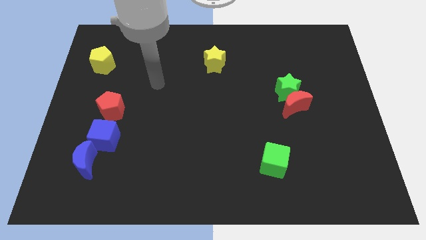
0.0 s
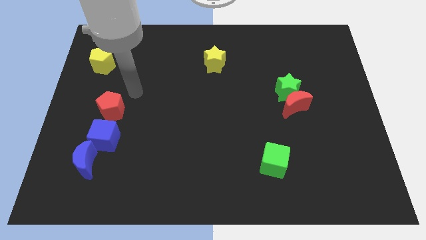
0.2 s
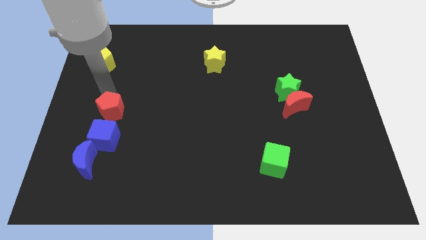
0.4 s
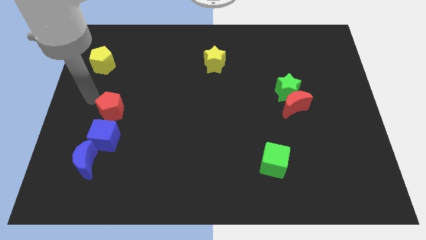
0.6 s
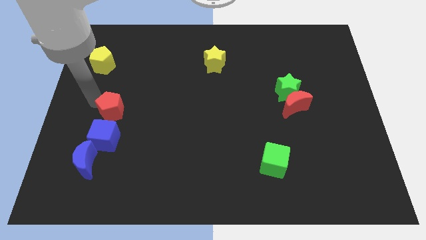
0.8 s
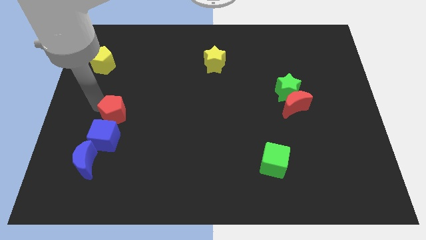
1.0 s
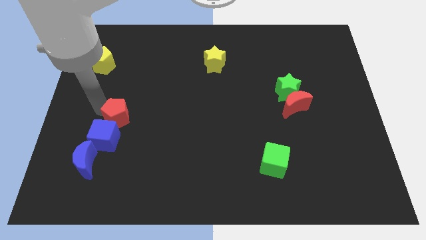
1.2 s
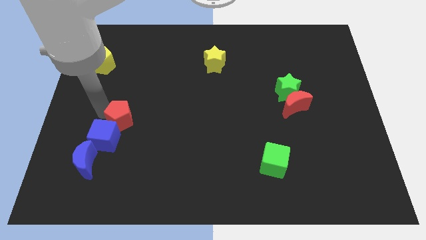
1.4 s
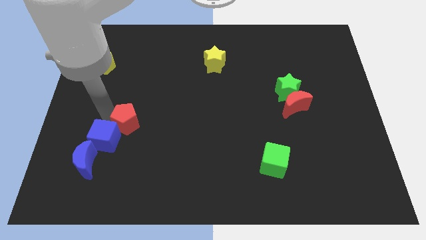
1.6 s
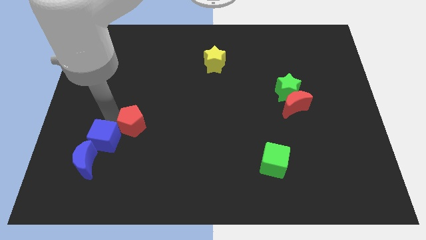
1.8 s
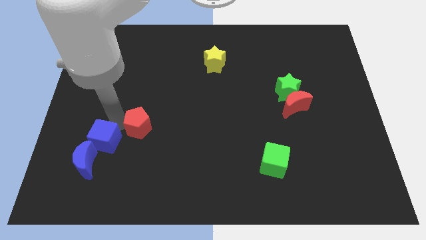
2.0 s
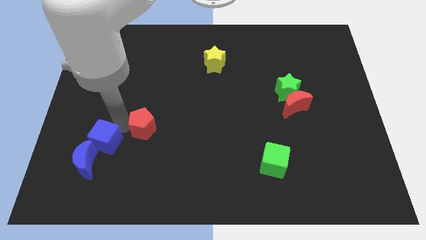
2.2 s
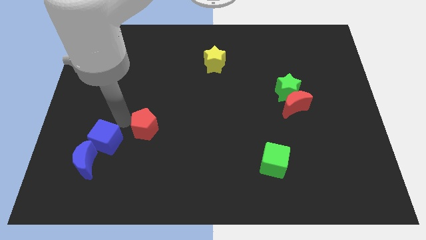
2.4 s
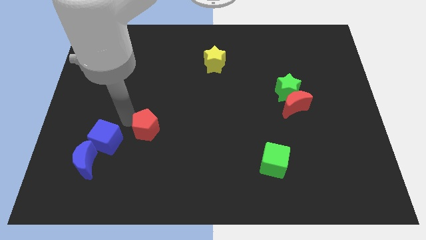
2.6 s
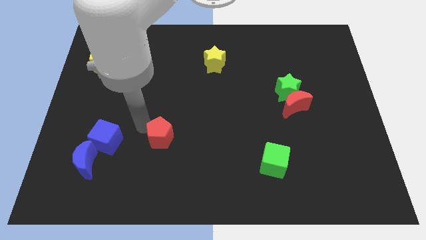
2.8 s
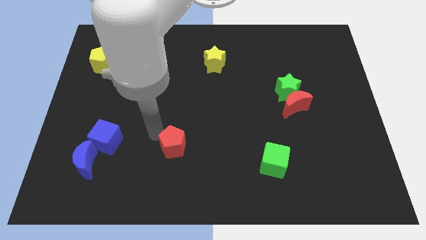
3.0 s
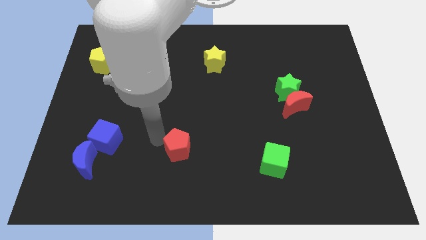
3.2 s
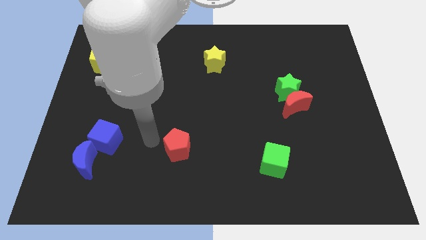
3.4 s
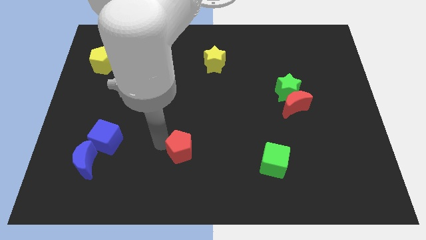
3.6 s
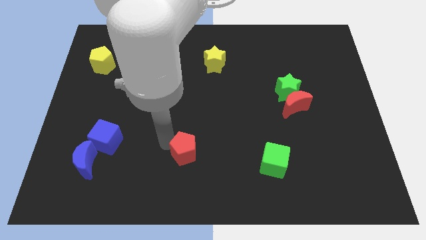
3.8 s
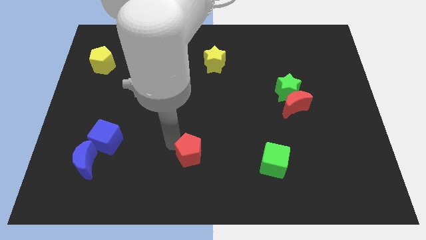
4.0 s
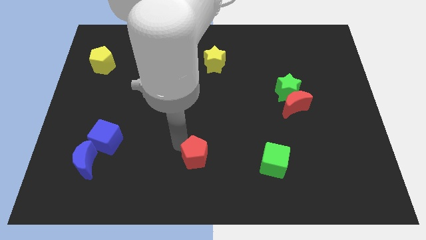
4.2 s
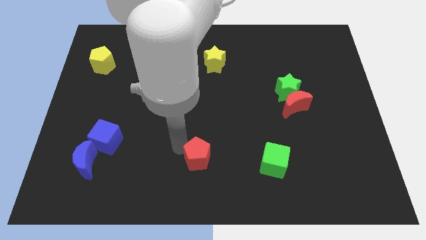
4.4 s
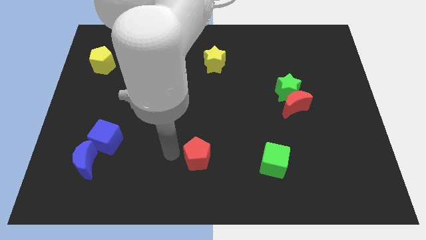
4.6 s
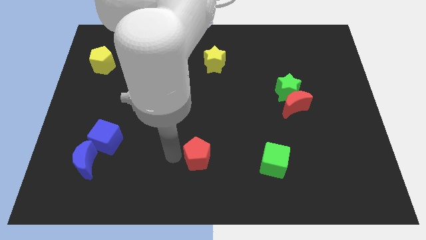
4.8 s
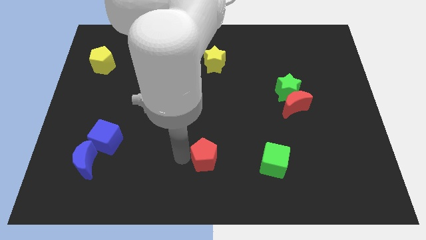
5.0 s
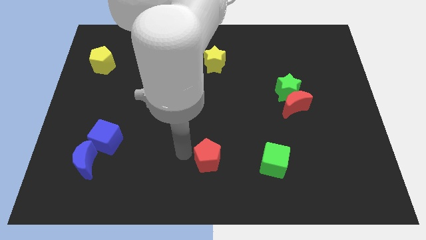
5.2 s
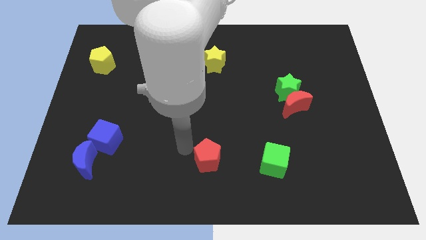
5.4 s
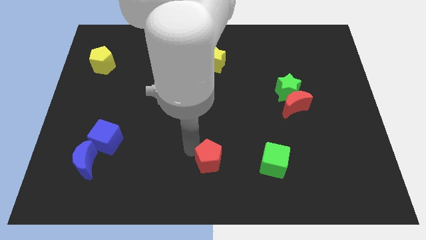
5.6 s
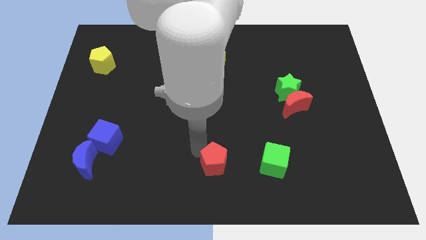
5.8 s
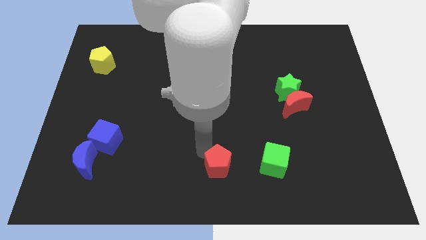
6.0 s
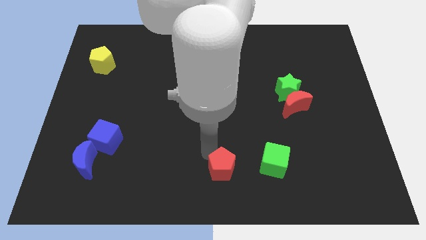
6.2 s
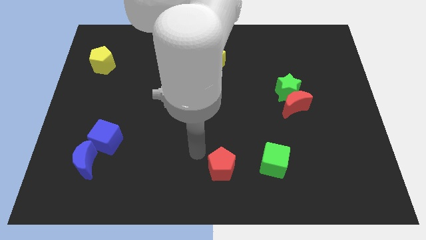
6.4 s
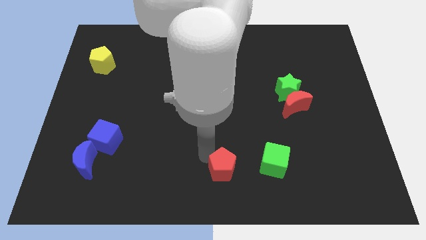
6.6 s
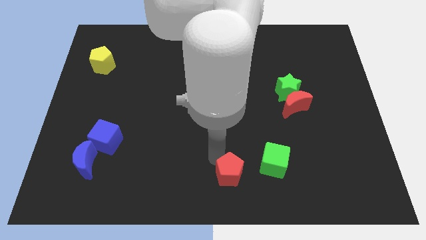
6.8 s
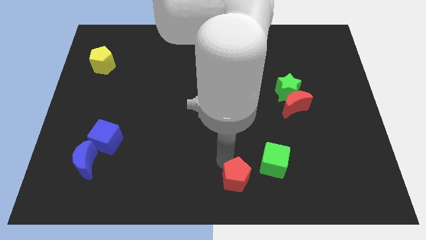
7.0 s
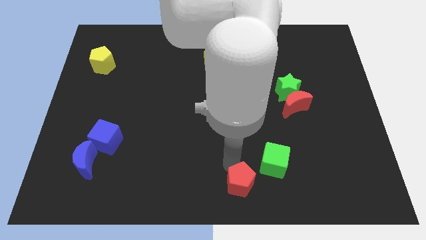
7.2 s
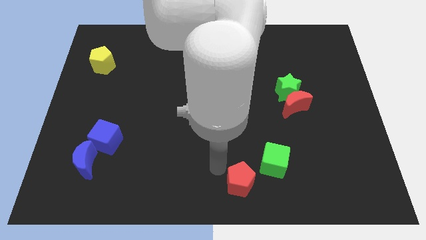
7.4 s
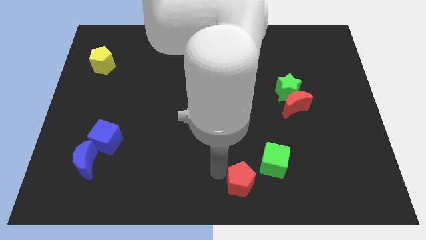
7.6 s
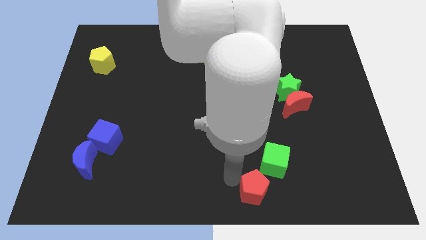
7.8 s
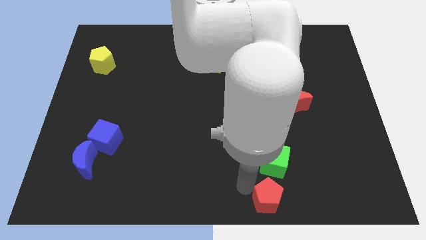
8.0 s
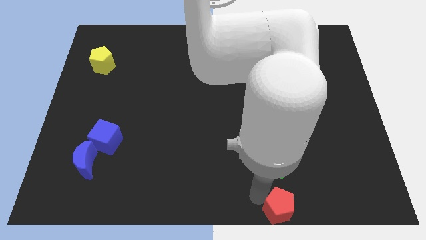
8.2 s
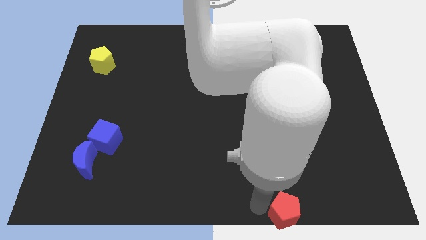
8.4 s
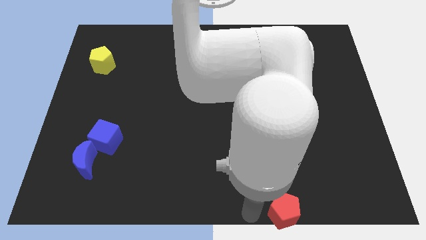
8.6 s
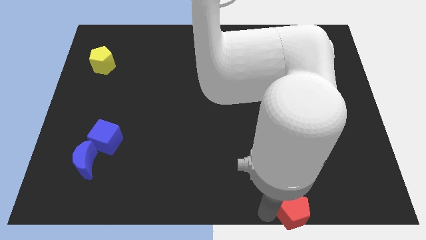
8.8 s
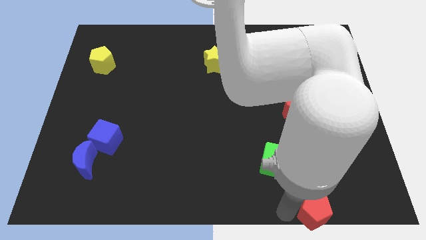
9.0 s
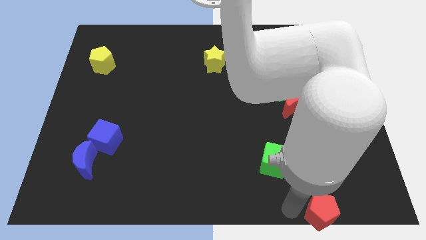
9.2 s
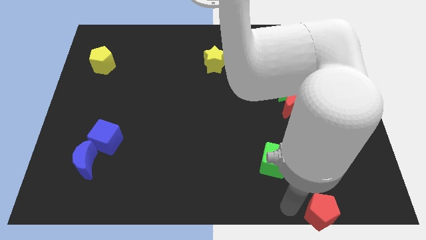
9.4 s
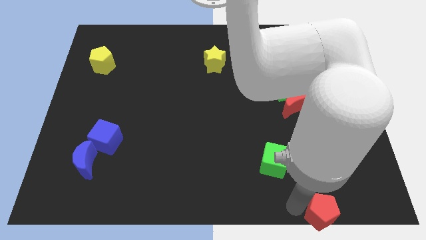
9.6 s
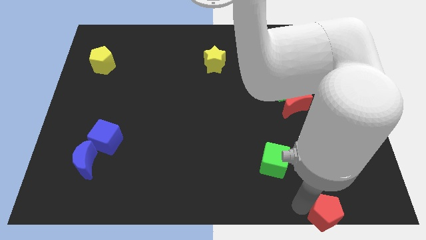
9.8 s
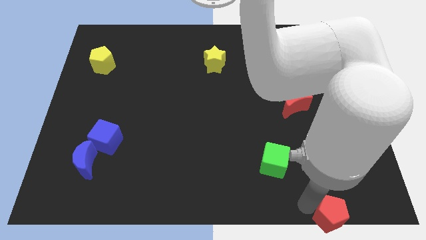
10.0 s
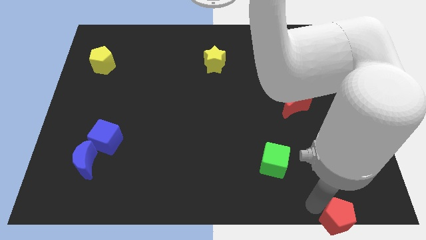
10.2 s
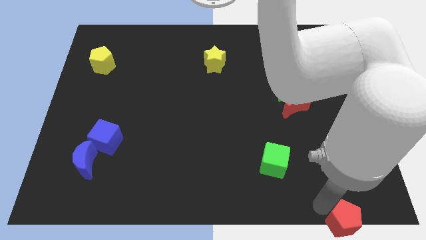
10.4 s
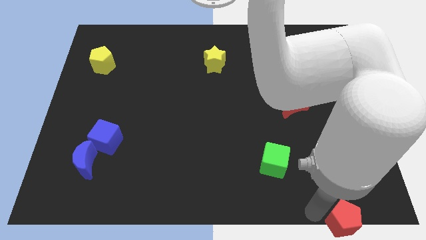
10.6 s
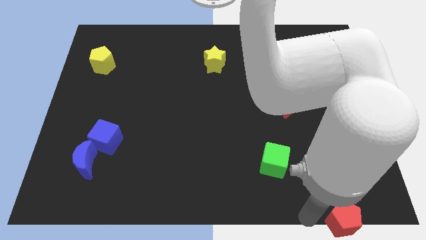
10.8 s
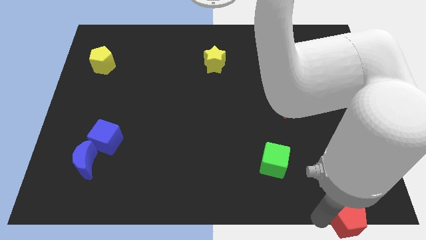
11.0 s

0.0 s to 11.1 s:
slide the red pentagon to the bottom right

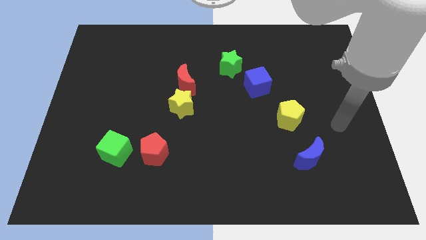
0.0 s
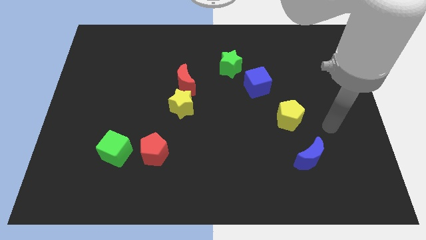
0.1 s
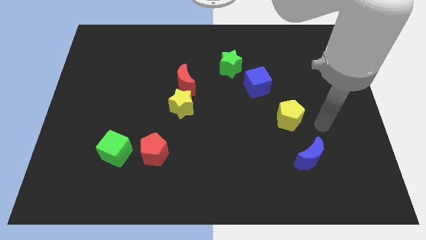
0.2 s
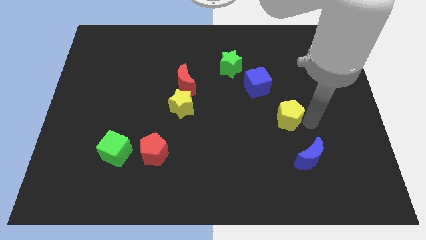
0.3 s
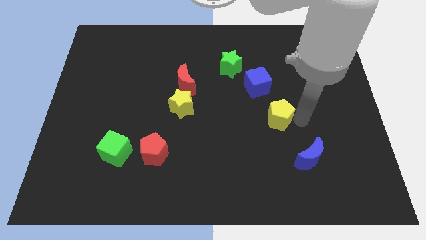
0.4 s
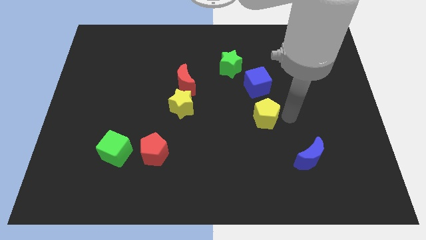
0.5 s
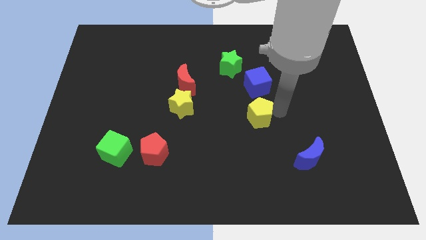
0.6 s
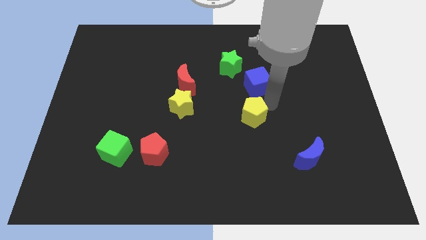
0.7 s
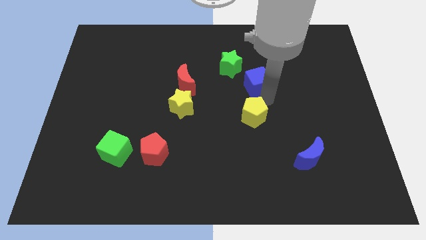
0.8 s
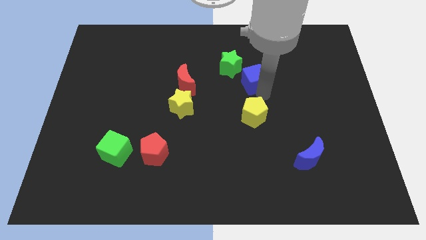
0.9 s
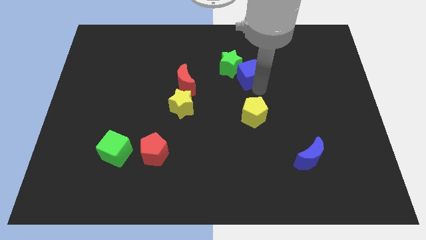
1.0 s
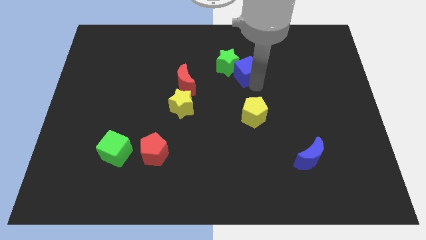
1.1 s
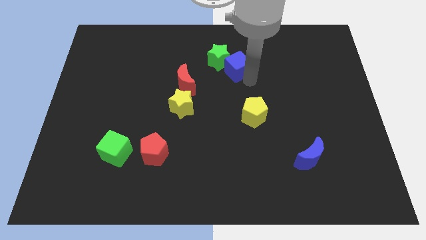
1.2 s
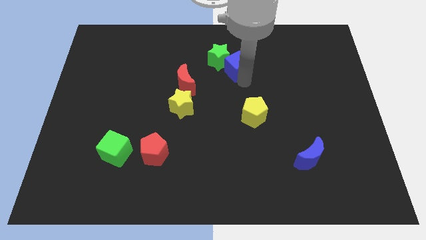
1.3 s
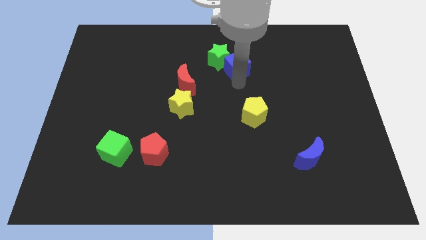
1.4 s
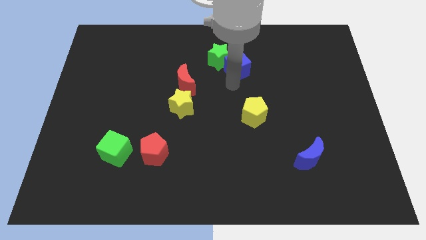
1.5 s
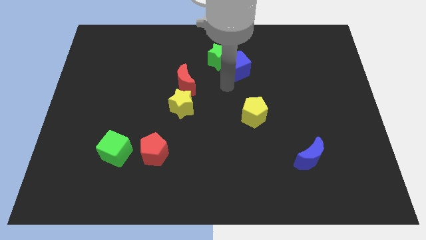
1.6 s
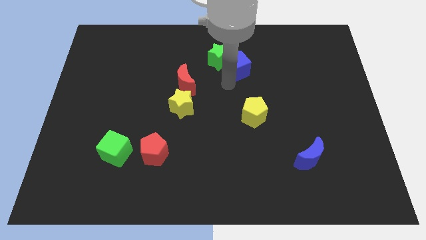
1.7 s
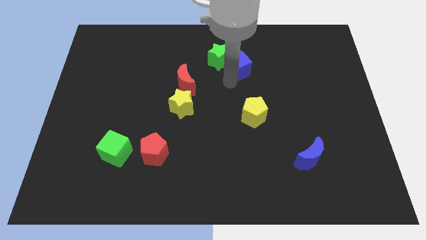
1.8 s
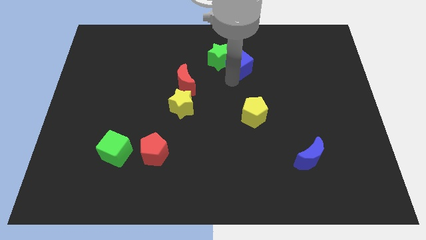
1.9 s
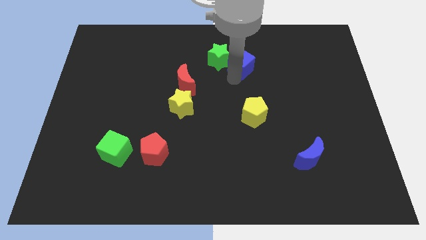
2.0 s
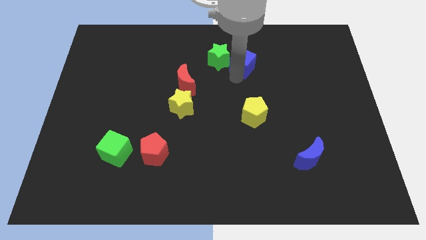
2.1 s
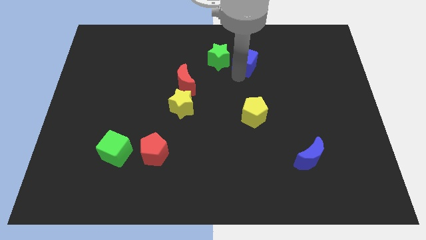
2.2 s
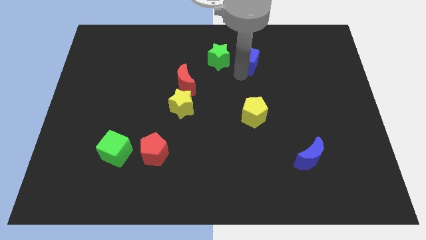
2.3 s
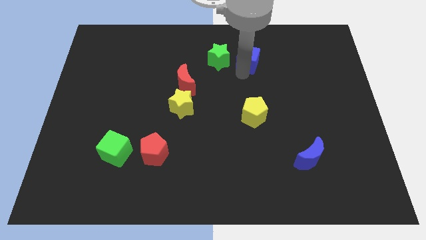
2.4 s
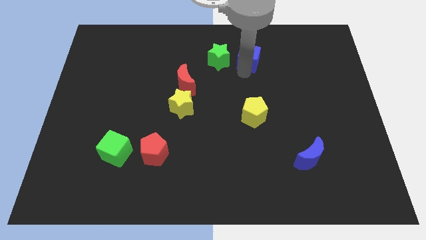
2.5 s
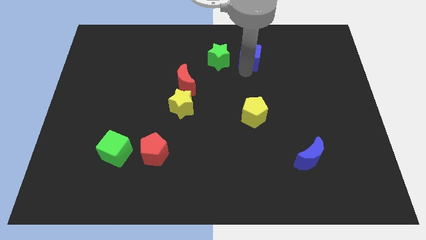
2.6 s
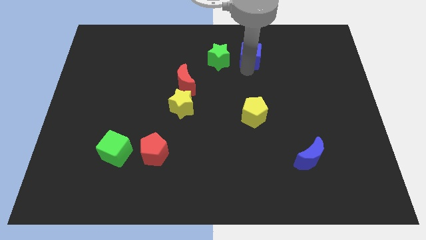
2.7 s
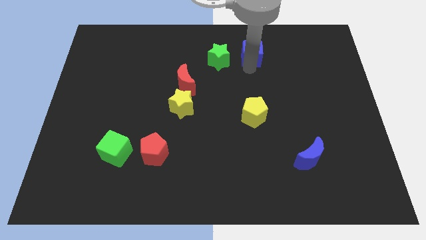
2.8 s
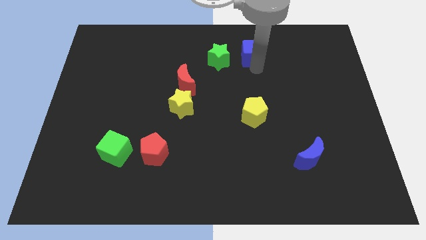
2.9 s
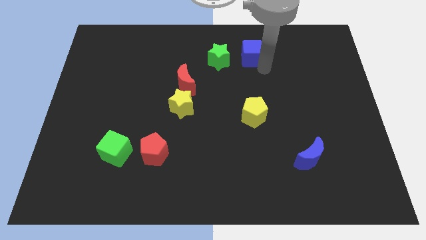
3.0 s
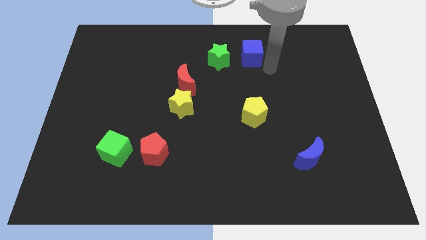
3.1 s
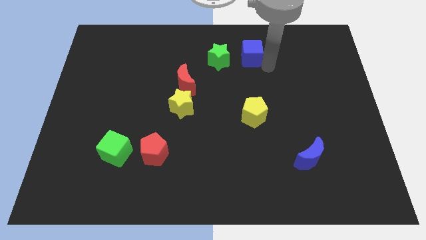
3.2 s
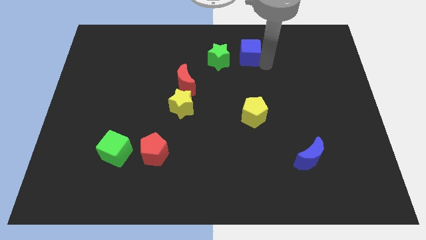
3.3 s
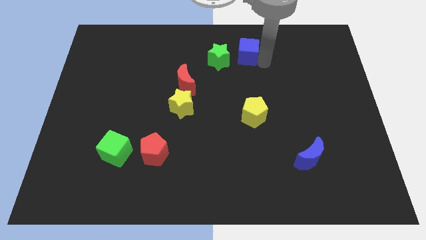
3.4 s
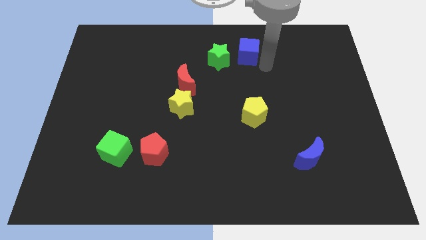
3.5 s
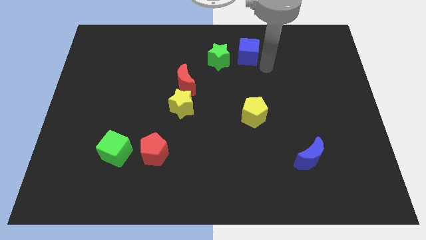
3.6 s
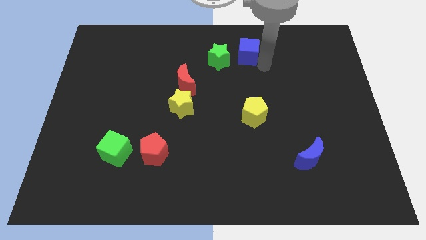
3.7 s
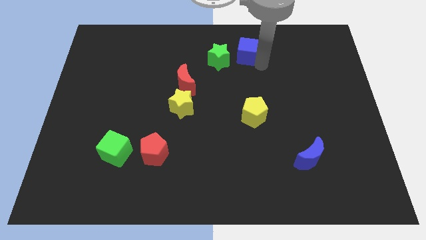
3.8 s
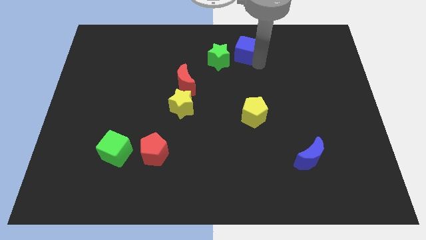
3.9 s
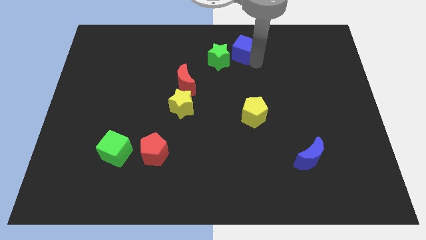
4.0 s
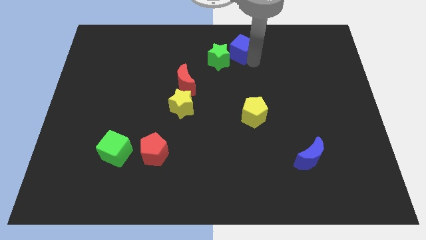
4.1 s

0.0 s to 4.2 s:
put the blue cube to the top
